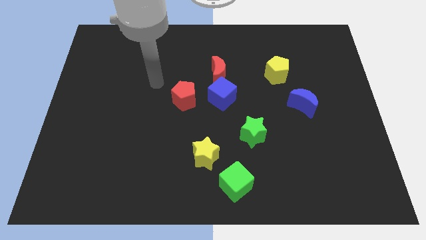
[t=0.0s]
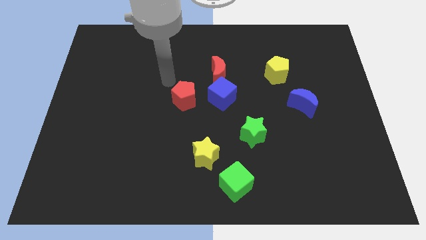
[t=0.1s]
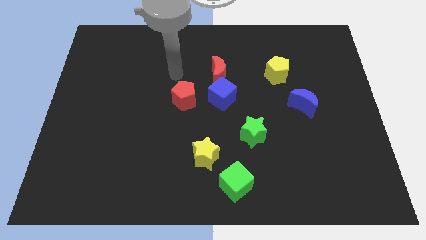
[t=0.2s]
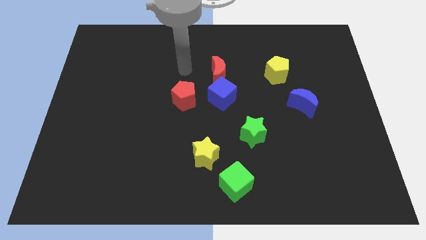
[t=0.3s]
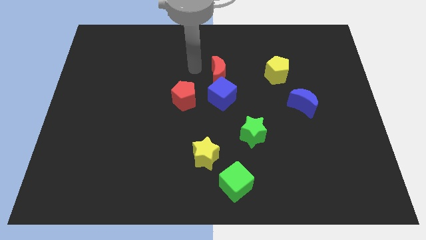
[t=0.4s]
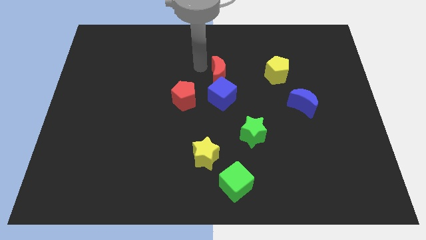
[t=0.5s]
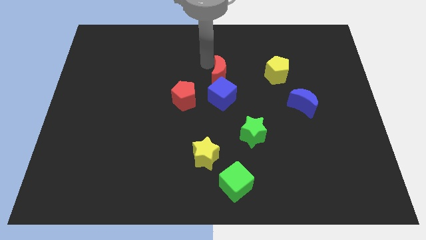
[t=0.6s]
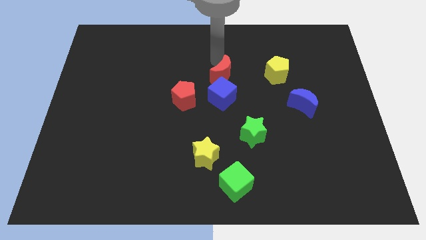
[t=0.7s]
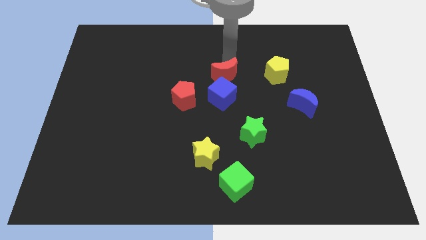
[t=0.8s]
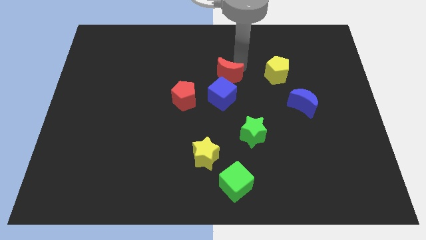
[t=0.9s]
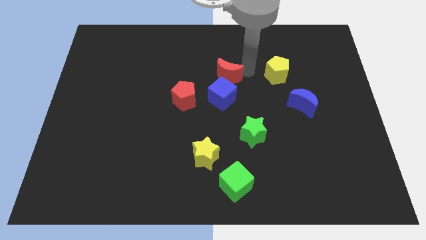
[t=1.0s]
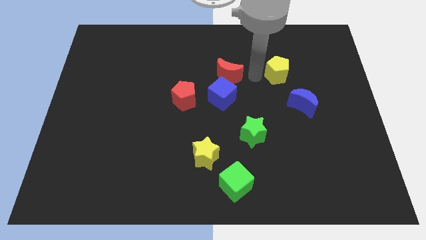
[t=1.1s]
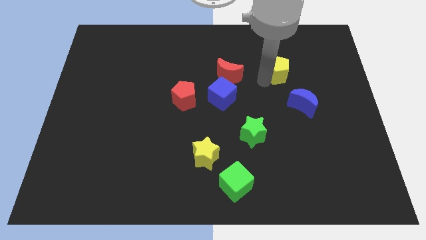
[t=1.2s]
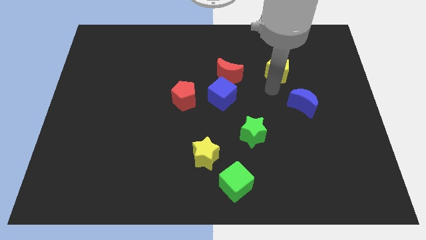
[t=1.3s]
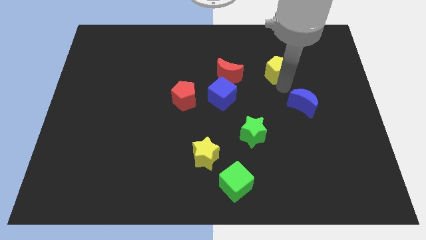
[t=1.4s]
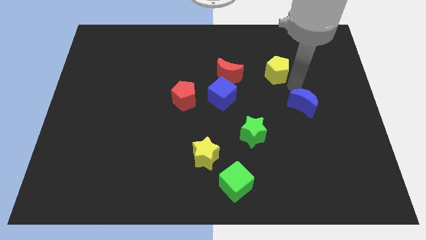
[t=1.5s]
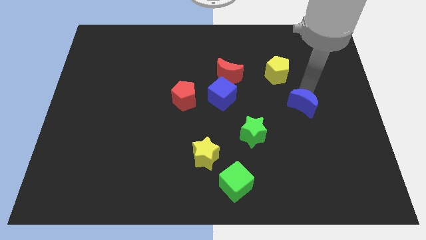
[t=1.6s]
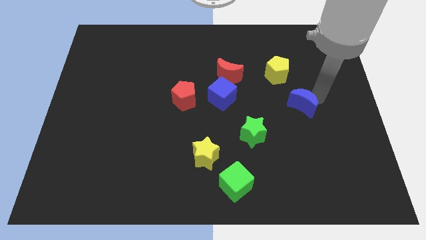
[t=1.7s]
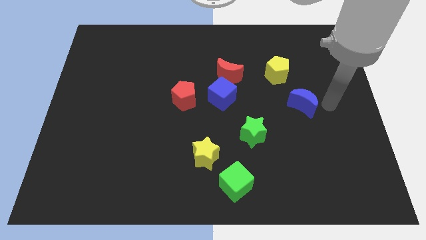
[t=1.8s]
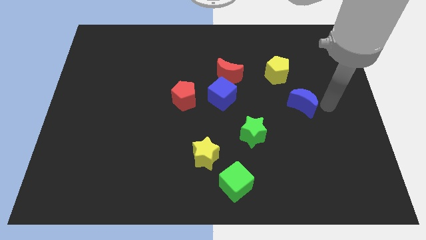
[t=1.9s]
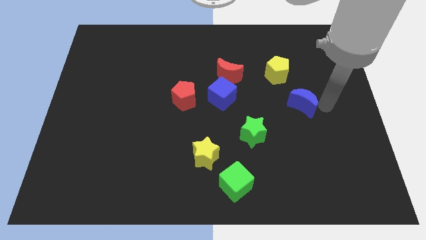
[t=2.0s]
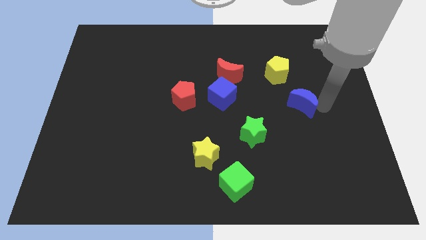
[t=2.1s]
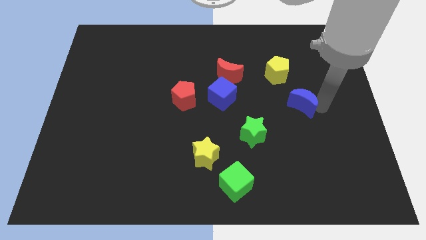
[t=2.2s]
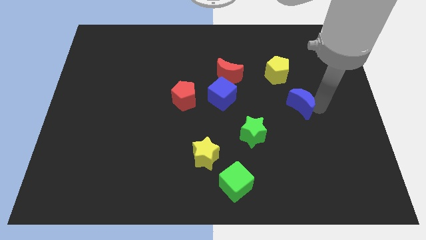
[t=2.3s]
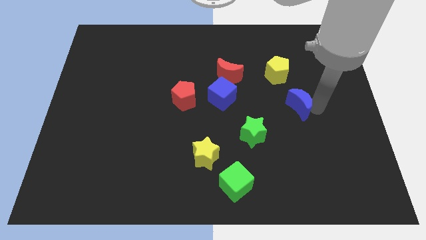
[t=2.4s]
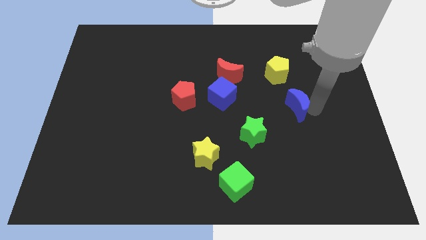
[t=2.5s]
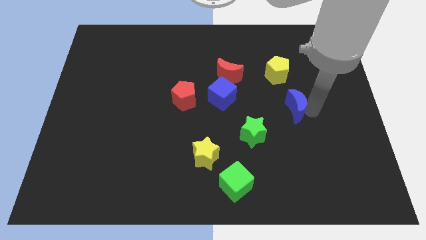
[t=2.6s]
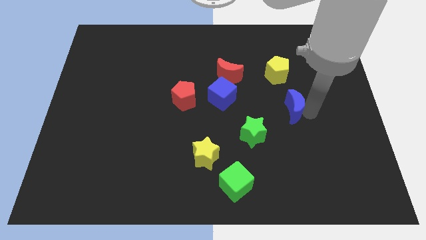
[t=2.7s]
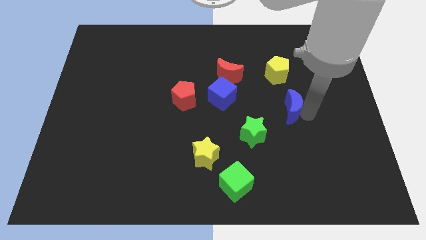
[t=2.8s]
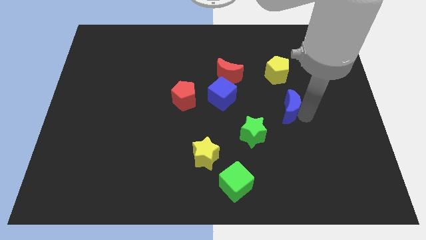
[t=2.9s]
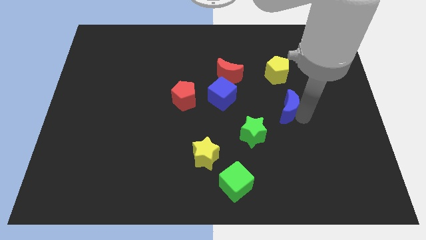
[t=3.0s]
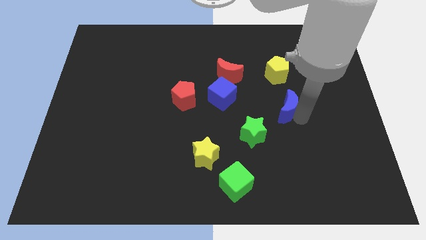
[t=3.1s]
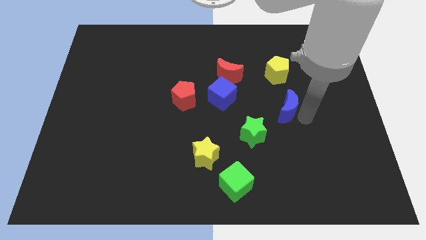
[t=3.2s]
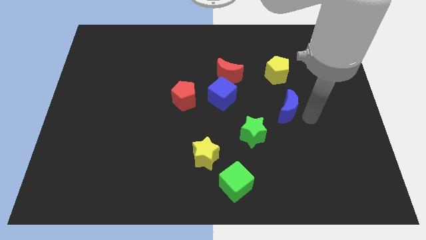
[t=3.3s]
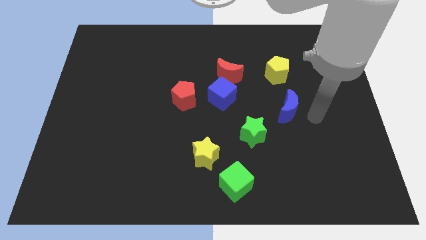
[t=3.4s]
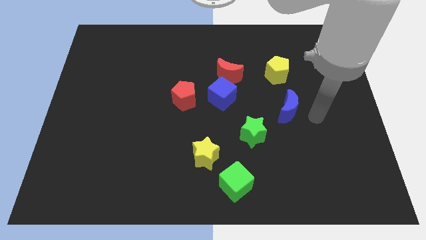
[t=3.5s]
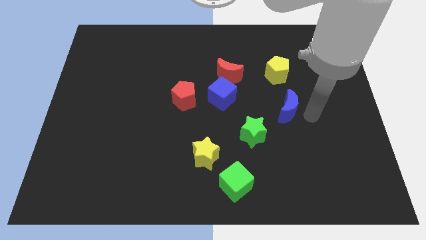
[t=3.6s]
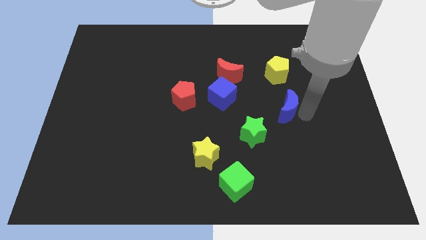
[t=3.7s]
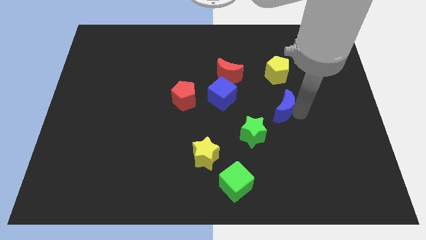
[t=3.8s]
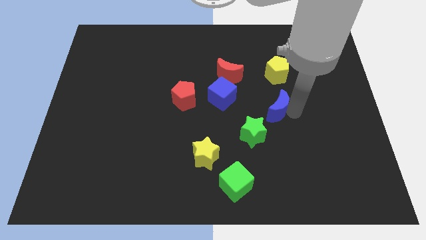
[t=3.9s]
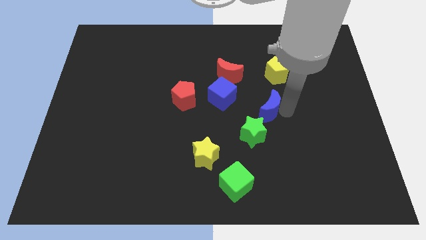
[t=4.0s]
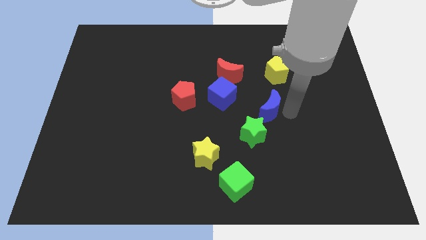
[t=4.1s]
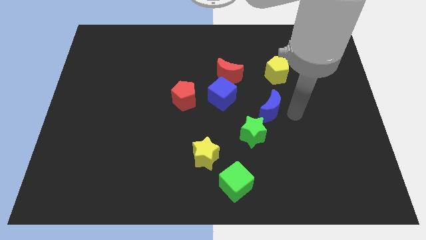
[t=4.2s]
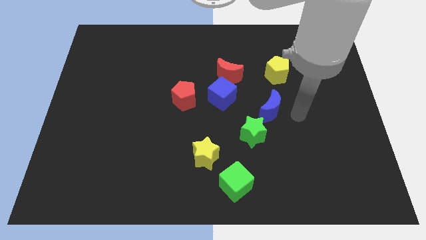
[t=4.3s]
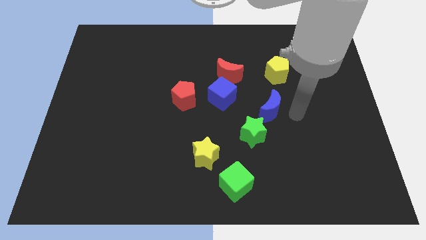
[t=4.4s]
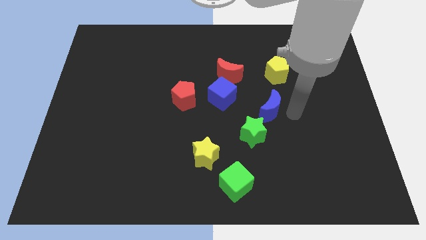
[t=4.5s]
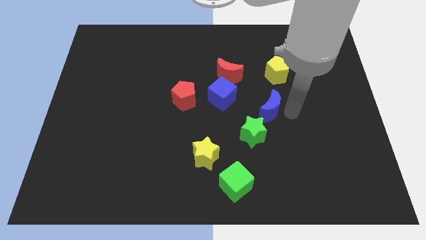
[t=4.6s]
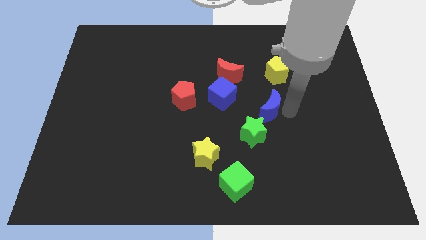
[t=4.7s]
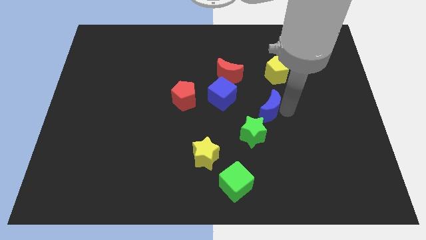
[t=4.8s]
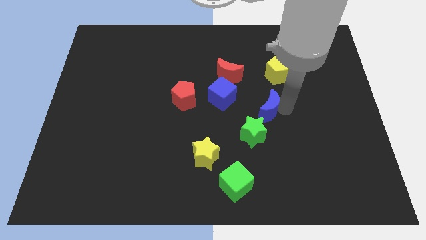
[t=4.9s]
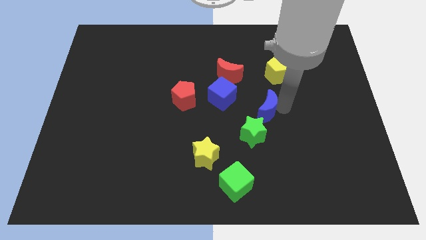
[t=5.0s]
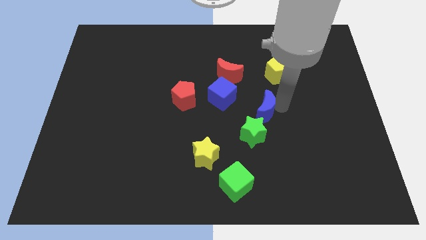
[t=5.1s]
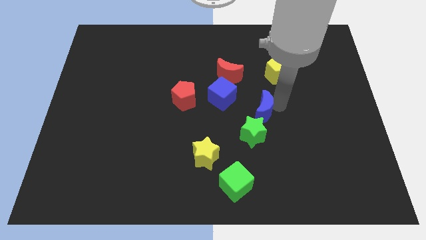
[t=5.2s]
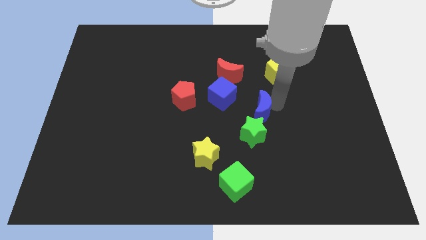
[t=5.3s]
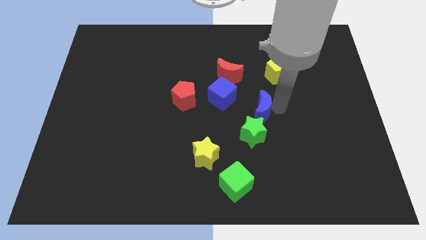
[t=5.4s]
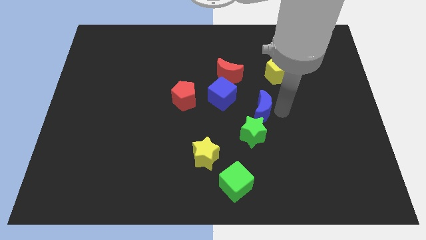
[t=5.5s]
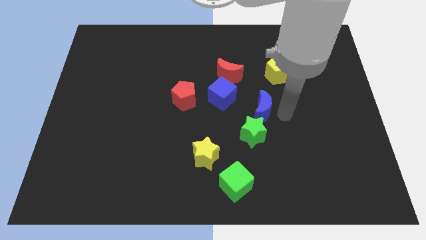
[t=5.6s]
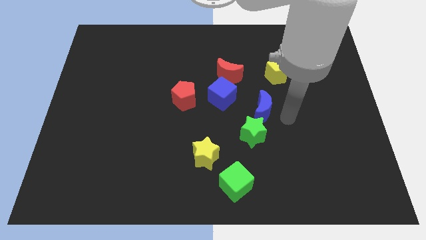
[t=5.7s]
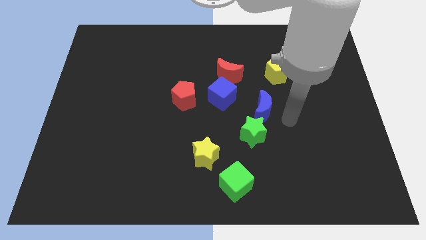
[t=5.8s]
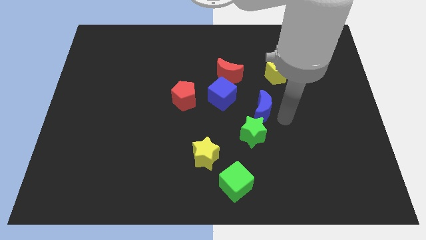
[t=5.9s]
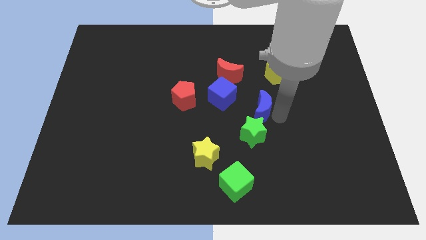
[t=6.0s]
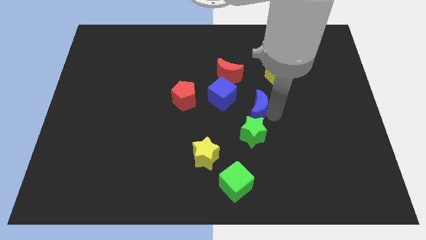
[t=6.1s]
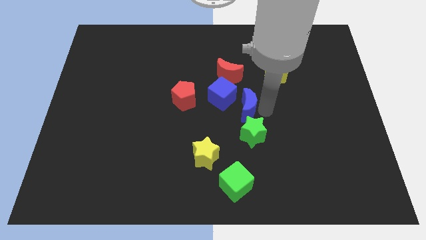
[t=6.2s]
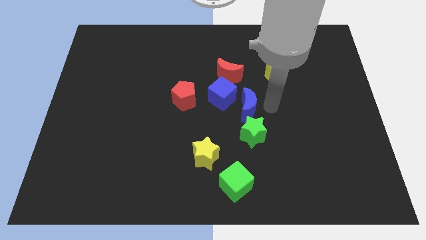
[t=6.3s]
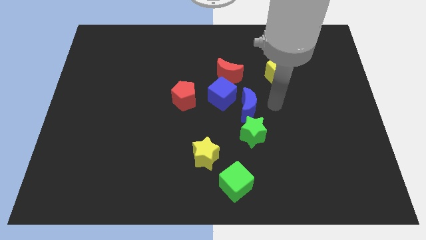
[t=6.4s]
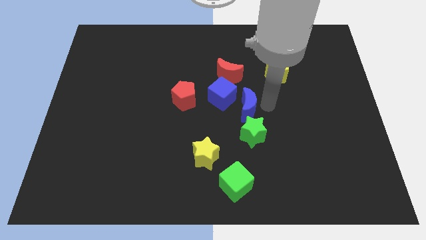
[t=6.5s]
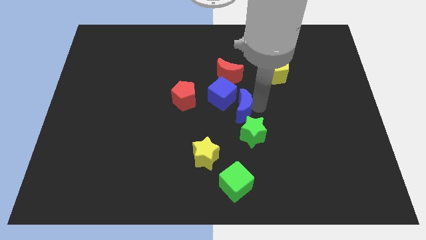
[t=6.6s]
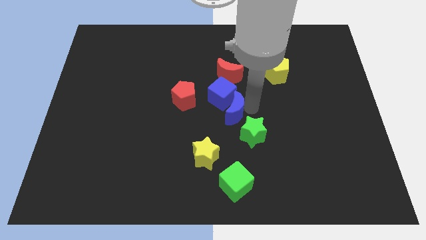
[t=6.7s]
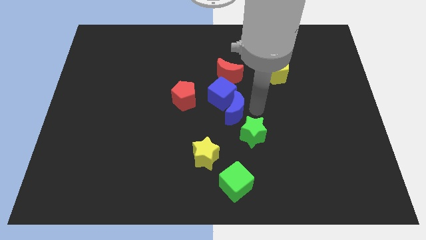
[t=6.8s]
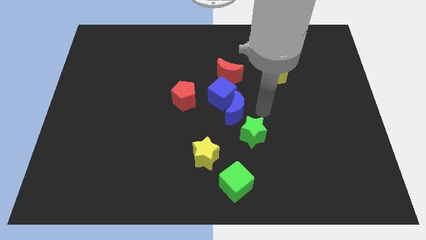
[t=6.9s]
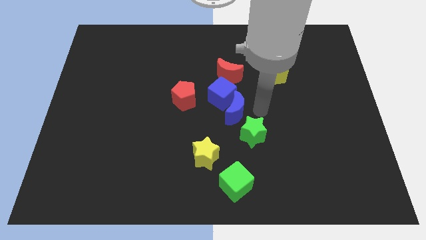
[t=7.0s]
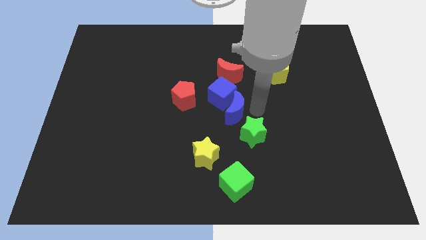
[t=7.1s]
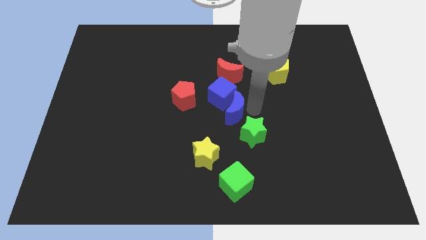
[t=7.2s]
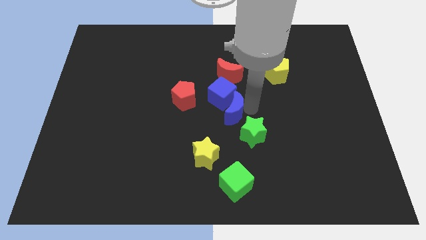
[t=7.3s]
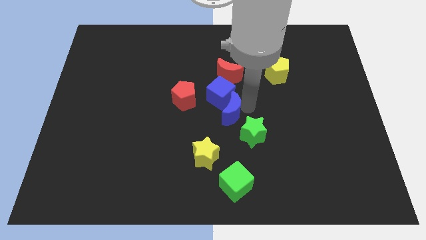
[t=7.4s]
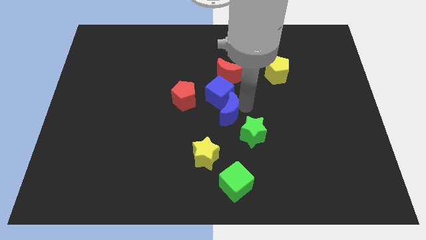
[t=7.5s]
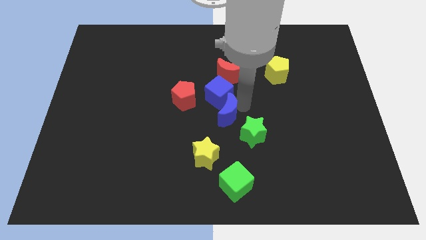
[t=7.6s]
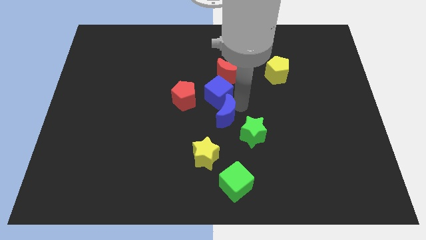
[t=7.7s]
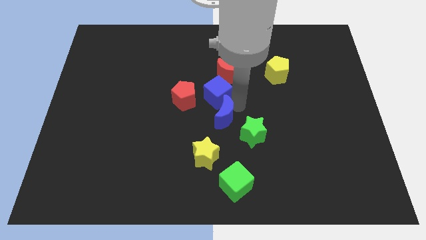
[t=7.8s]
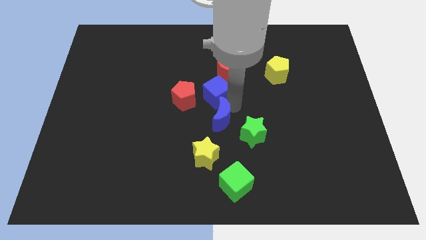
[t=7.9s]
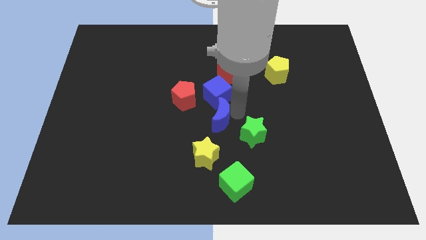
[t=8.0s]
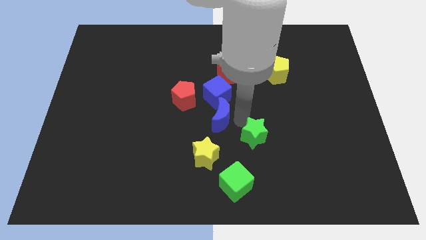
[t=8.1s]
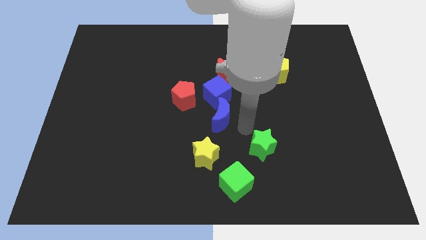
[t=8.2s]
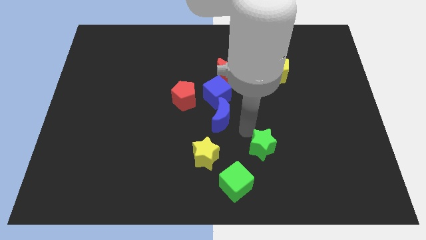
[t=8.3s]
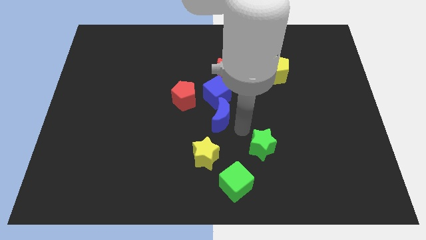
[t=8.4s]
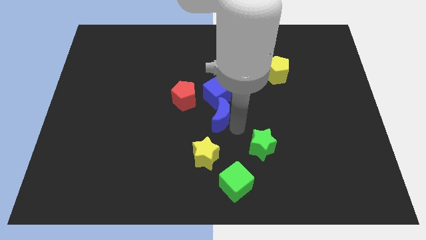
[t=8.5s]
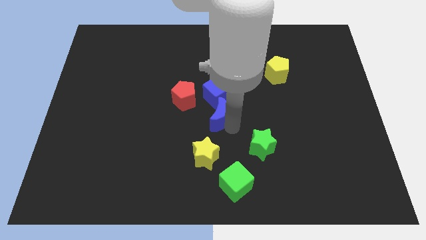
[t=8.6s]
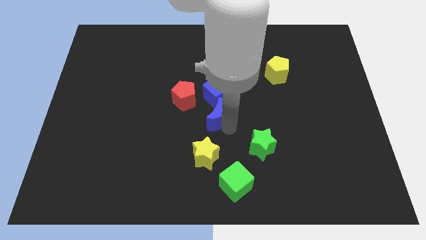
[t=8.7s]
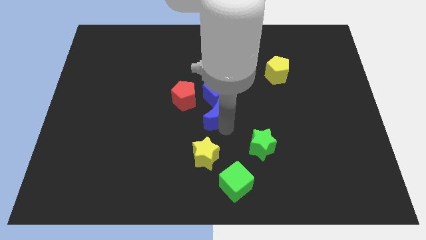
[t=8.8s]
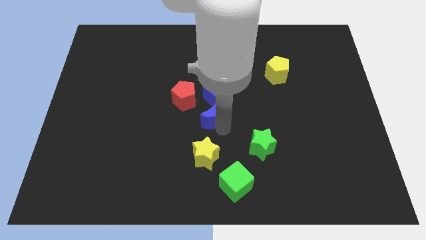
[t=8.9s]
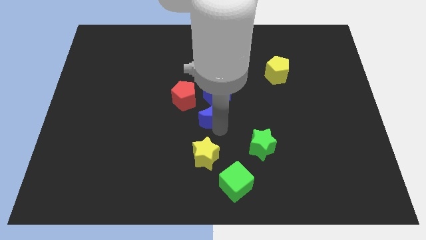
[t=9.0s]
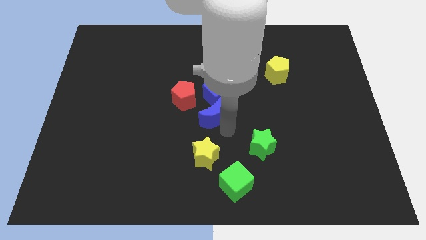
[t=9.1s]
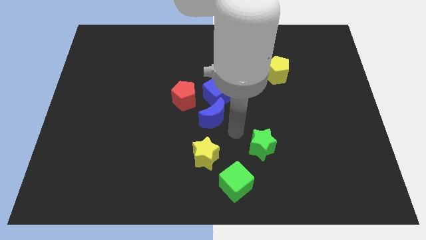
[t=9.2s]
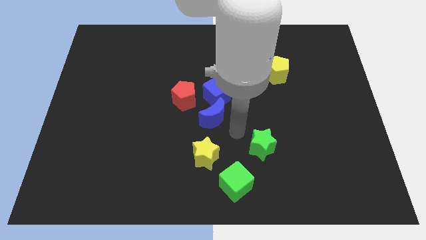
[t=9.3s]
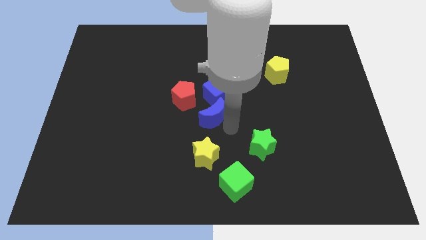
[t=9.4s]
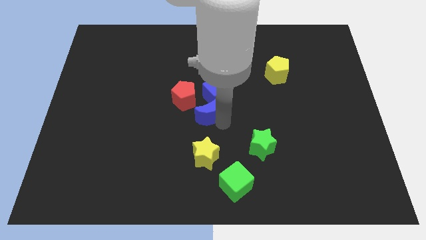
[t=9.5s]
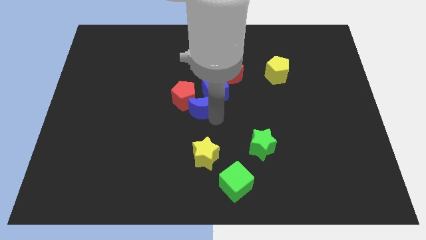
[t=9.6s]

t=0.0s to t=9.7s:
move the blue moon to the red pentagon
